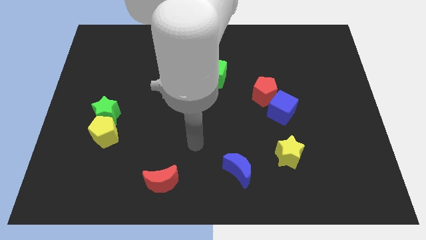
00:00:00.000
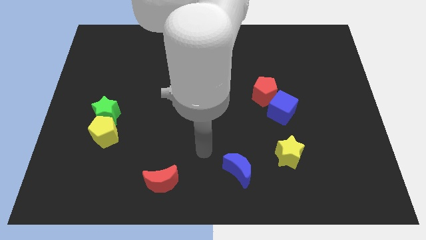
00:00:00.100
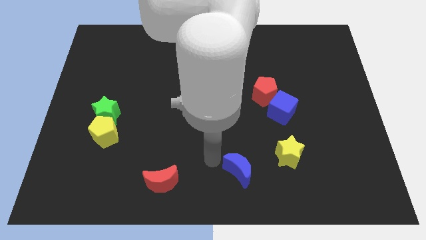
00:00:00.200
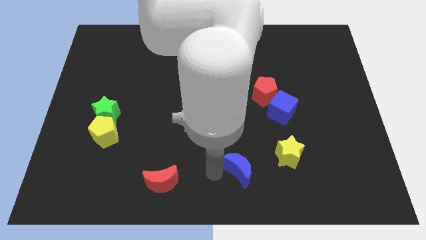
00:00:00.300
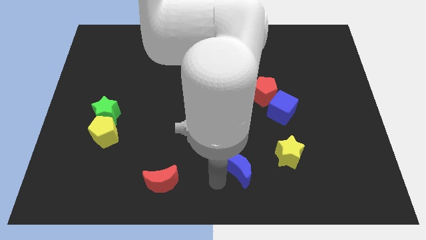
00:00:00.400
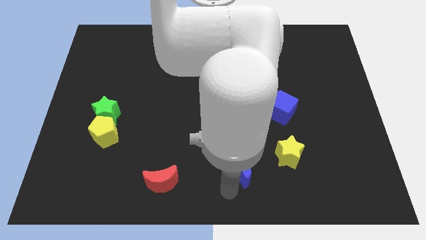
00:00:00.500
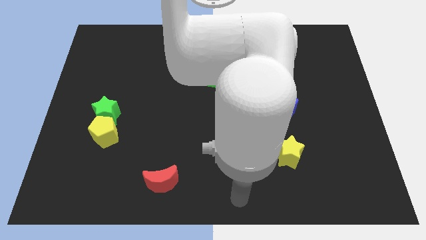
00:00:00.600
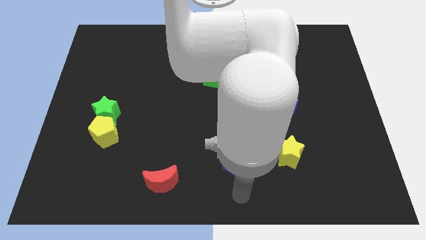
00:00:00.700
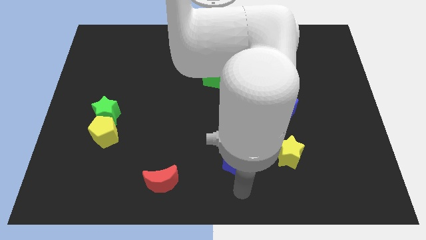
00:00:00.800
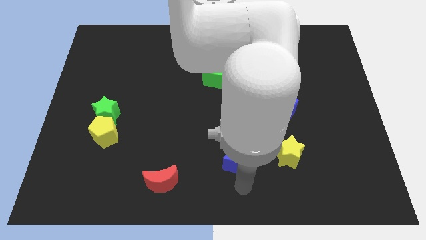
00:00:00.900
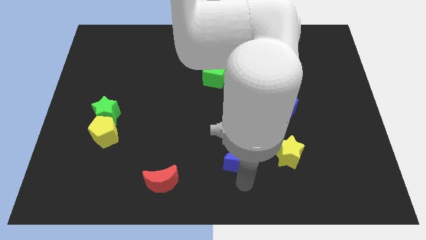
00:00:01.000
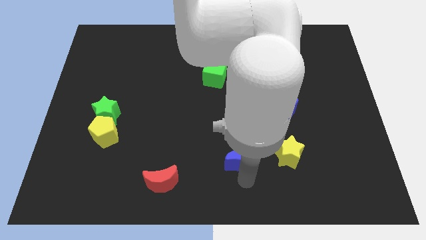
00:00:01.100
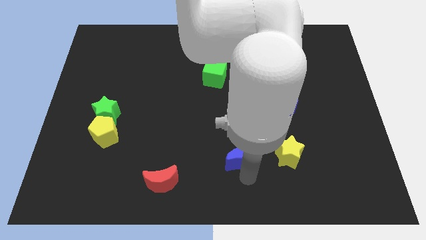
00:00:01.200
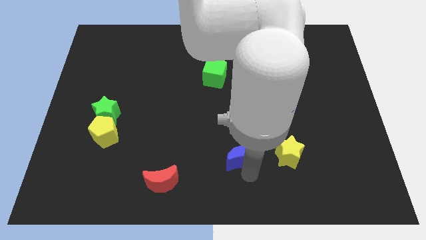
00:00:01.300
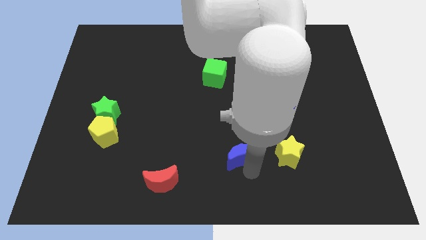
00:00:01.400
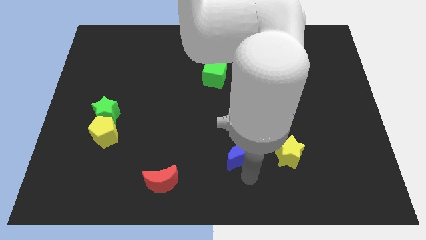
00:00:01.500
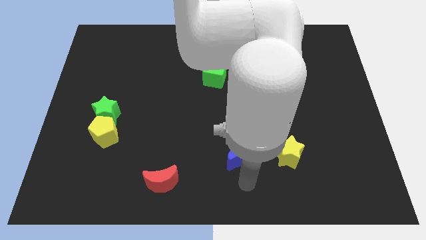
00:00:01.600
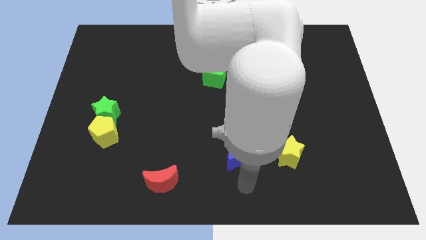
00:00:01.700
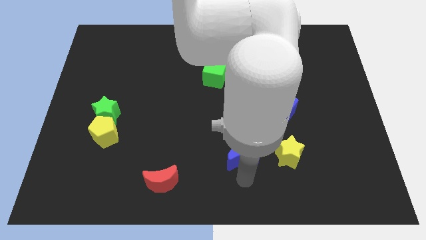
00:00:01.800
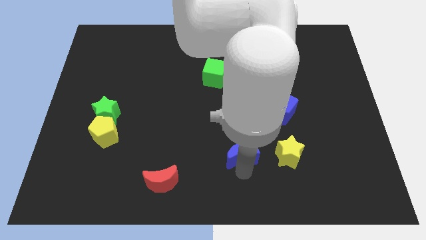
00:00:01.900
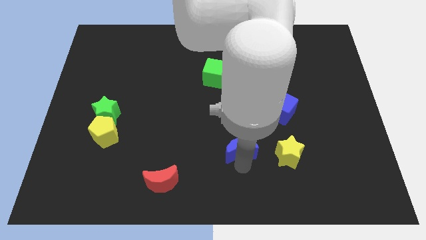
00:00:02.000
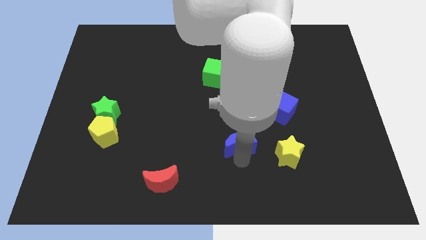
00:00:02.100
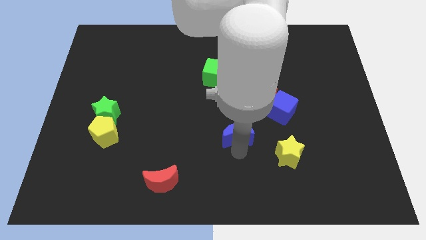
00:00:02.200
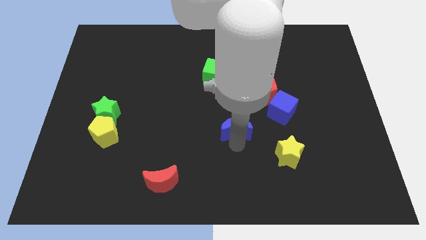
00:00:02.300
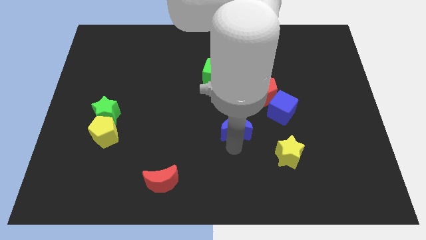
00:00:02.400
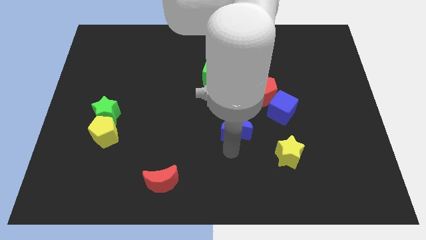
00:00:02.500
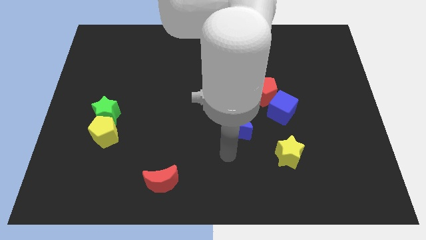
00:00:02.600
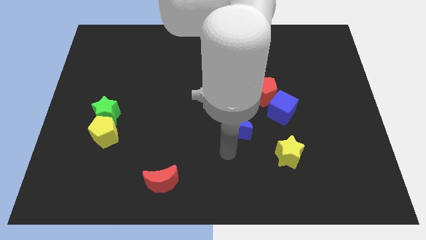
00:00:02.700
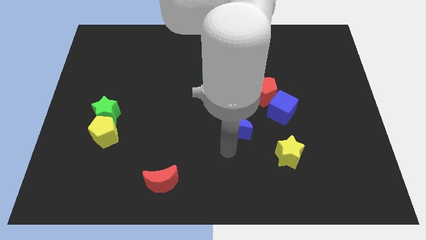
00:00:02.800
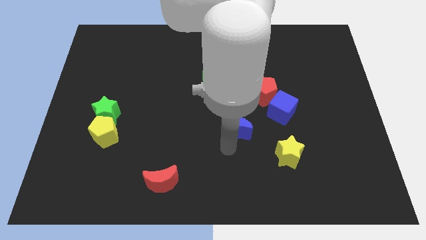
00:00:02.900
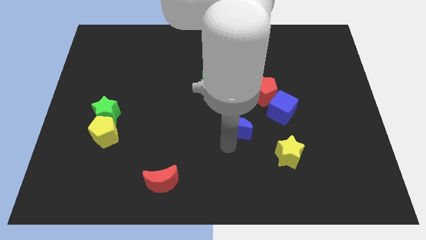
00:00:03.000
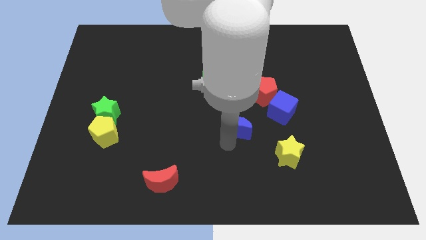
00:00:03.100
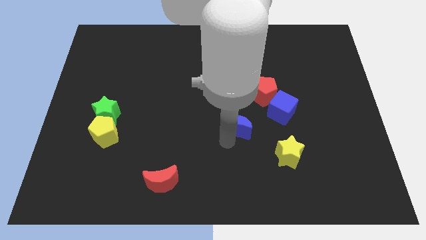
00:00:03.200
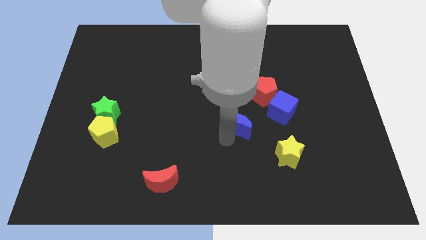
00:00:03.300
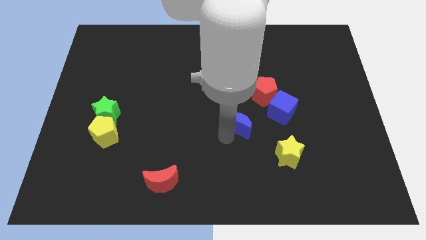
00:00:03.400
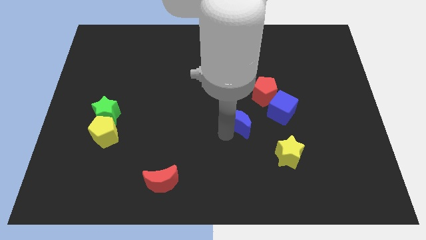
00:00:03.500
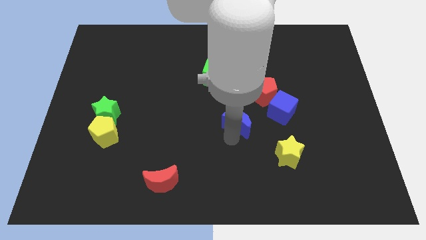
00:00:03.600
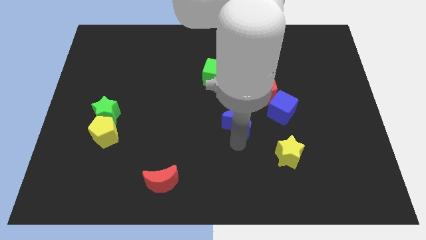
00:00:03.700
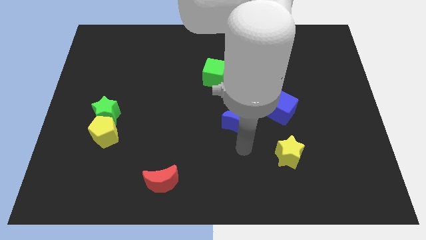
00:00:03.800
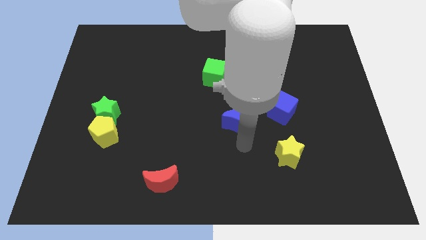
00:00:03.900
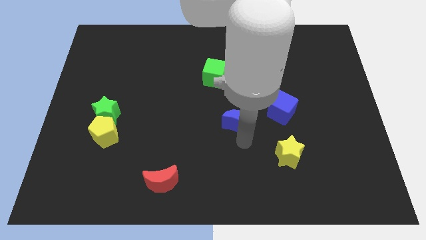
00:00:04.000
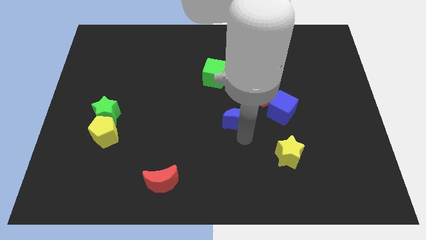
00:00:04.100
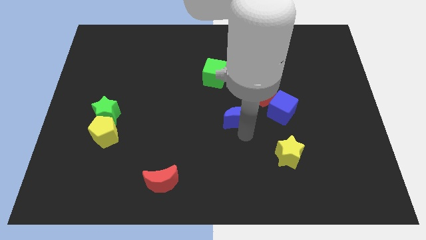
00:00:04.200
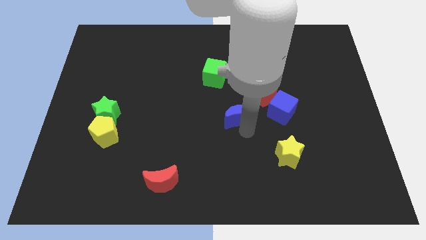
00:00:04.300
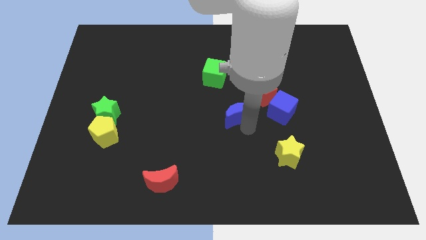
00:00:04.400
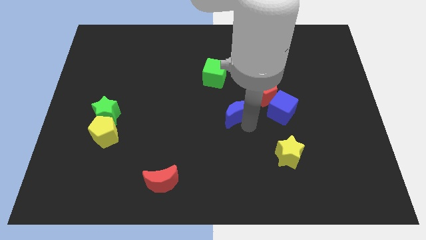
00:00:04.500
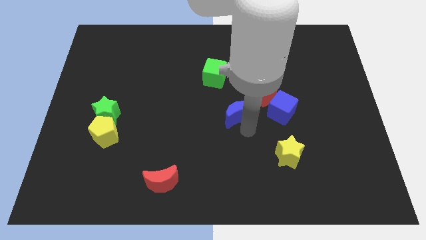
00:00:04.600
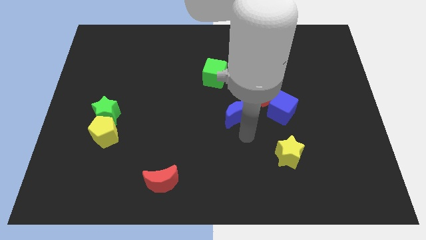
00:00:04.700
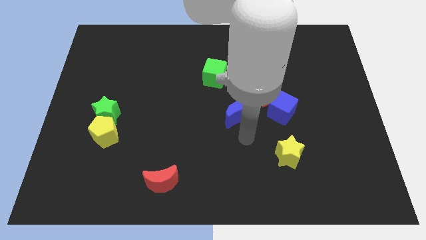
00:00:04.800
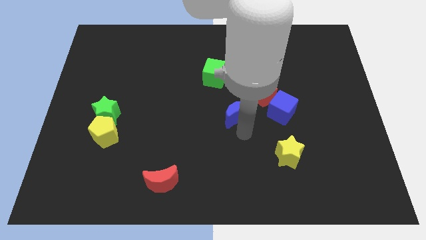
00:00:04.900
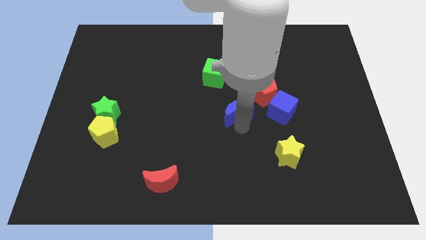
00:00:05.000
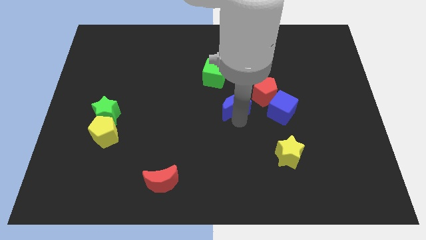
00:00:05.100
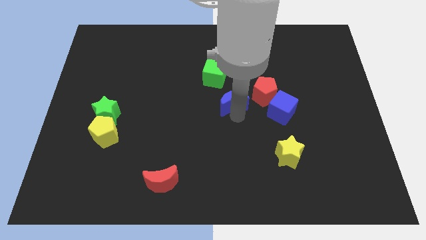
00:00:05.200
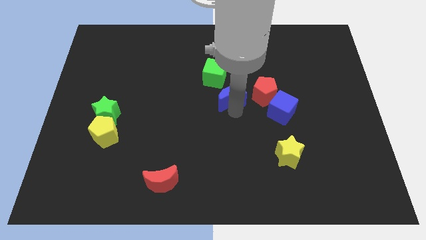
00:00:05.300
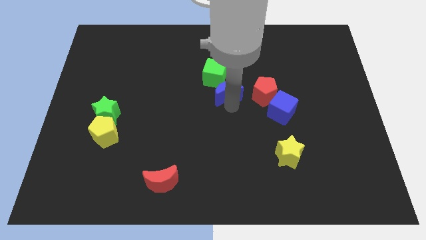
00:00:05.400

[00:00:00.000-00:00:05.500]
slide the blue moon up

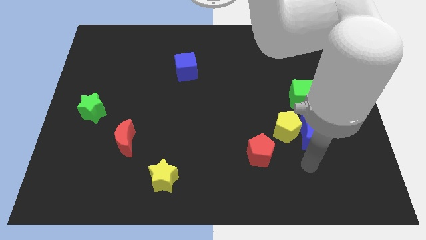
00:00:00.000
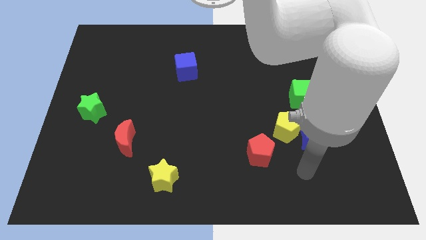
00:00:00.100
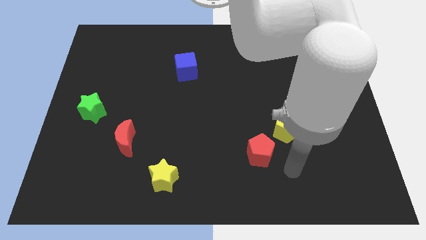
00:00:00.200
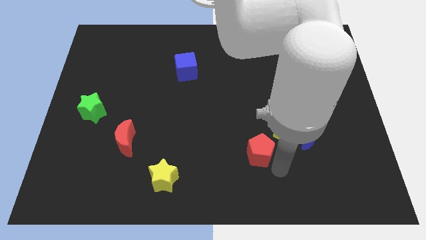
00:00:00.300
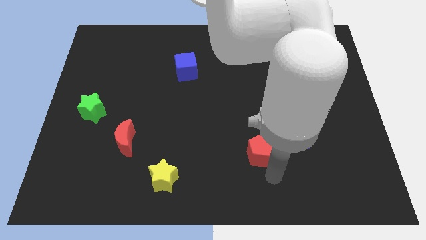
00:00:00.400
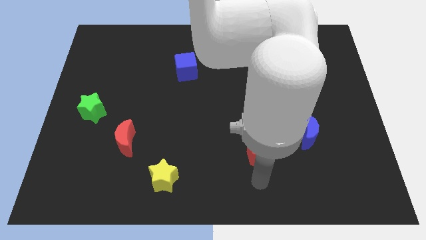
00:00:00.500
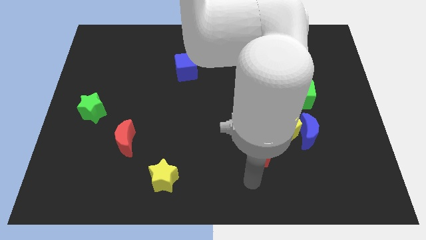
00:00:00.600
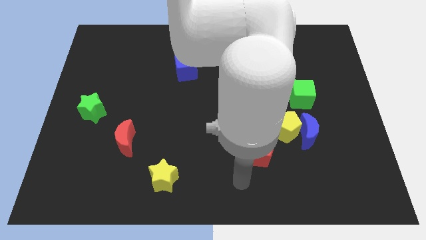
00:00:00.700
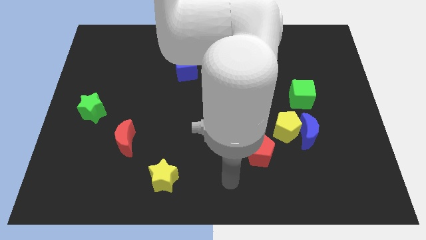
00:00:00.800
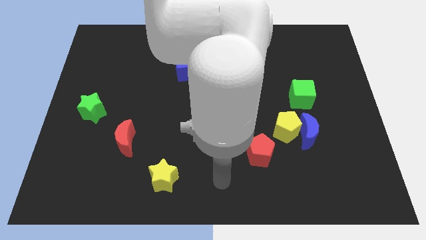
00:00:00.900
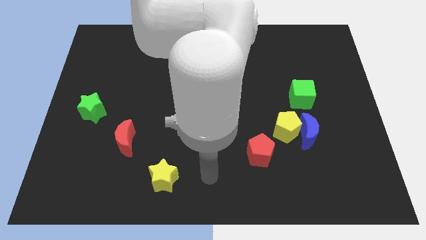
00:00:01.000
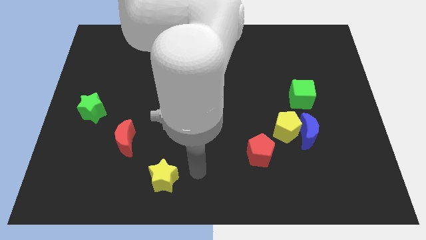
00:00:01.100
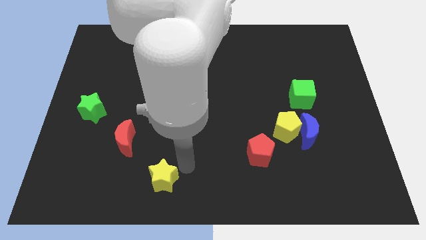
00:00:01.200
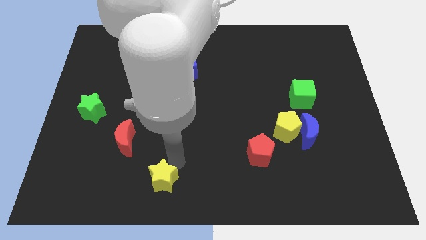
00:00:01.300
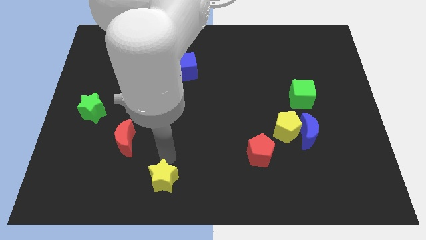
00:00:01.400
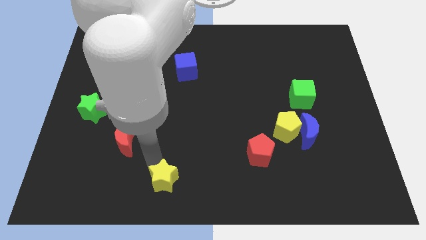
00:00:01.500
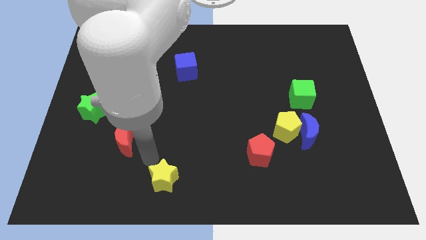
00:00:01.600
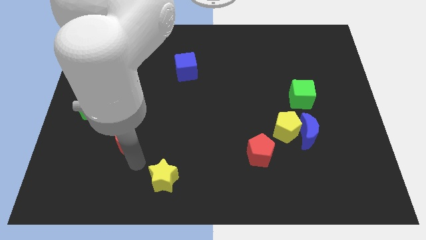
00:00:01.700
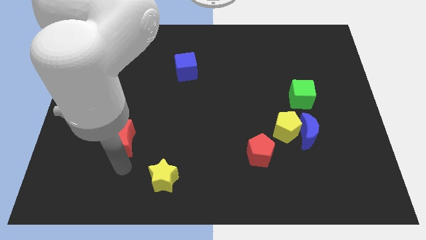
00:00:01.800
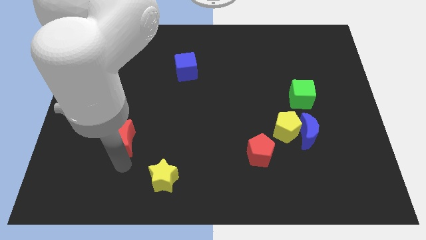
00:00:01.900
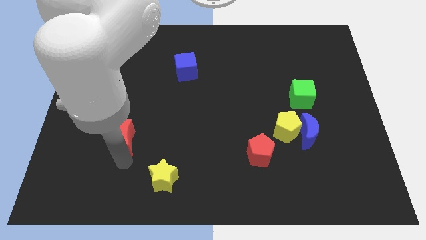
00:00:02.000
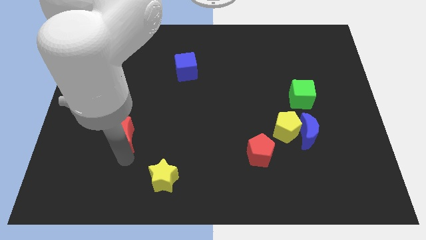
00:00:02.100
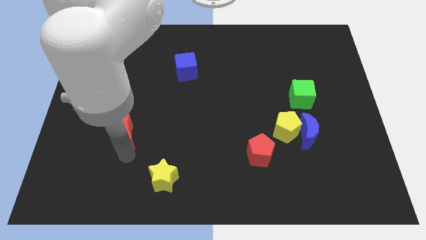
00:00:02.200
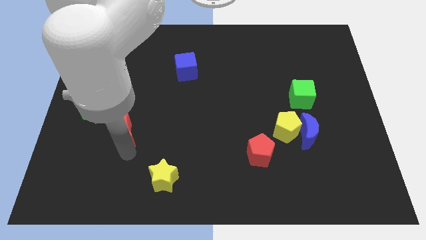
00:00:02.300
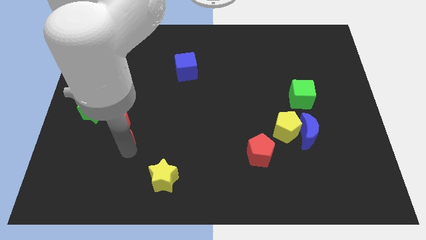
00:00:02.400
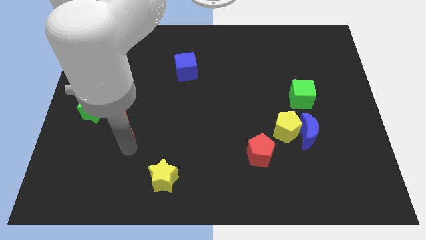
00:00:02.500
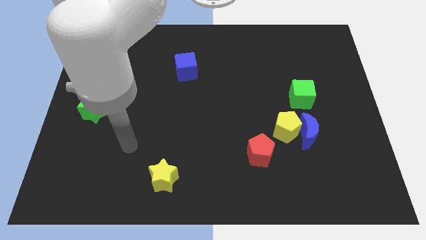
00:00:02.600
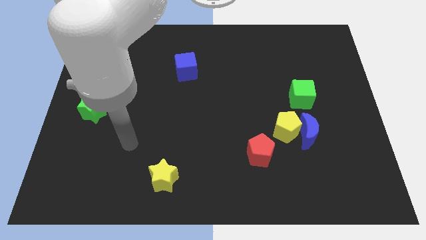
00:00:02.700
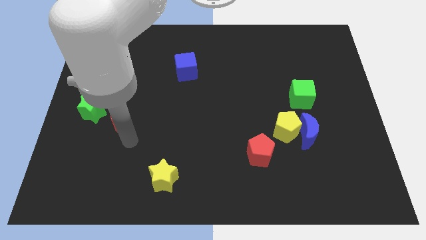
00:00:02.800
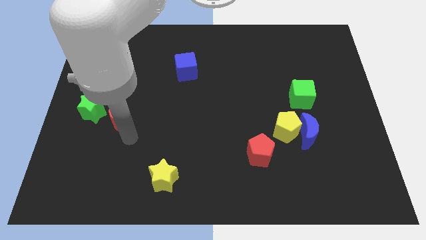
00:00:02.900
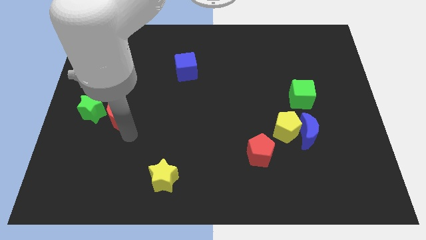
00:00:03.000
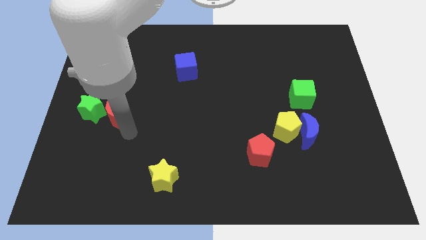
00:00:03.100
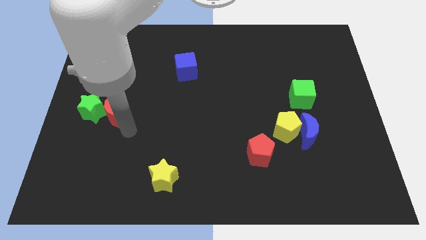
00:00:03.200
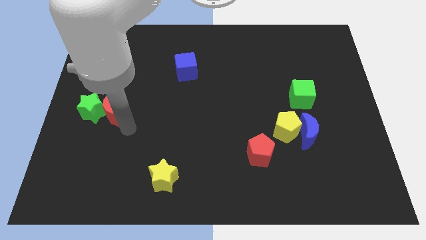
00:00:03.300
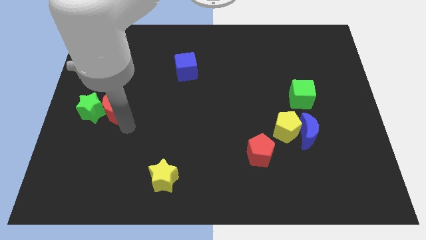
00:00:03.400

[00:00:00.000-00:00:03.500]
move the red moon slightly upwards
